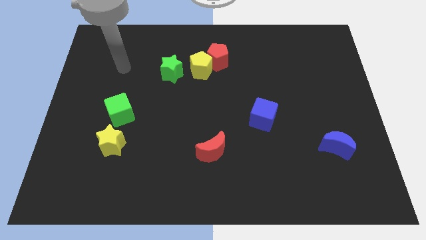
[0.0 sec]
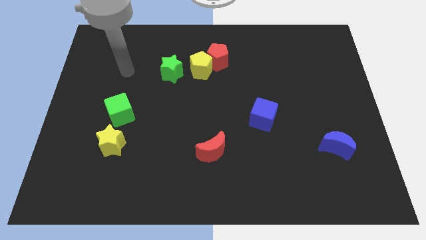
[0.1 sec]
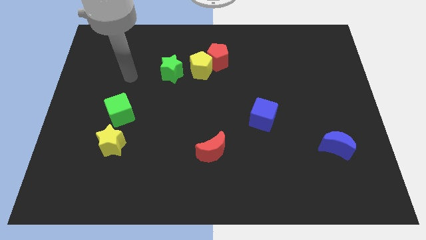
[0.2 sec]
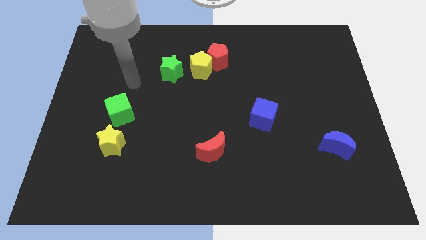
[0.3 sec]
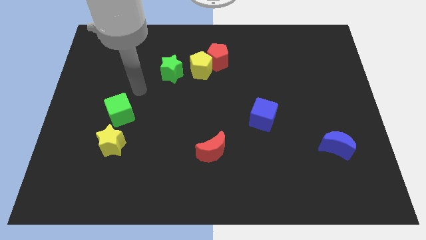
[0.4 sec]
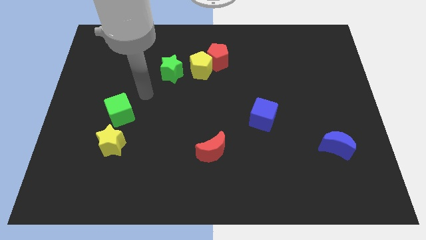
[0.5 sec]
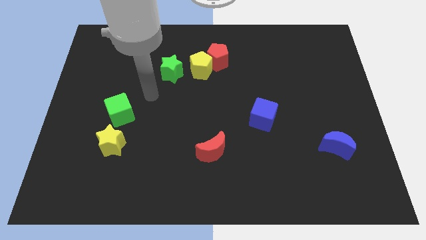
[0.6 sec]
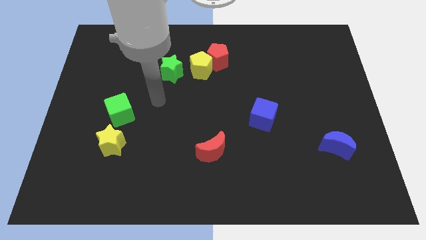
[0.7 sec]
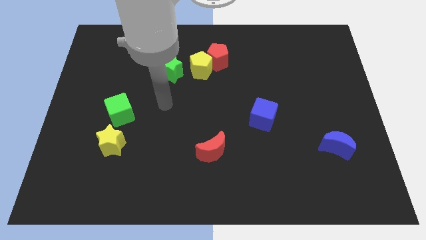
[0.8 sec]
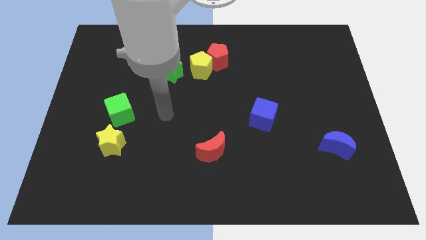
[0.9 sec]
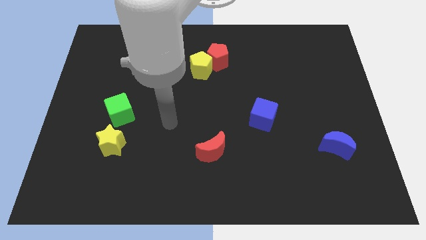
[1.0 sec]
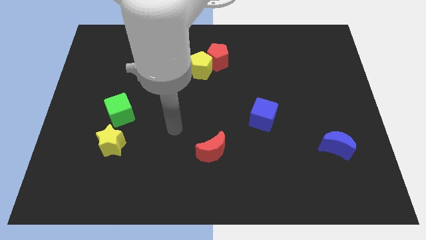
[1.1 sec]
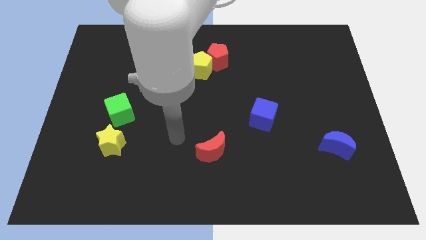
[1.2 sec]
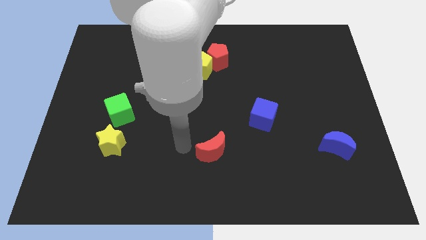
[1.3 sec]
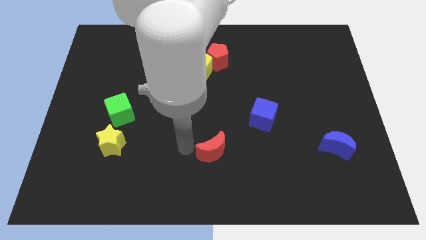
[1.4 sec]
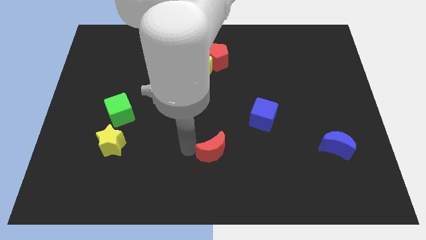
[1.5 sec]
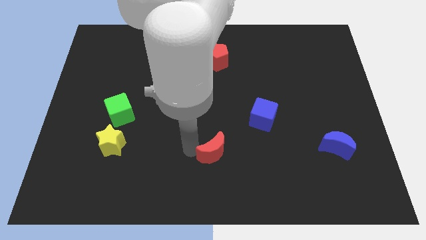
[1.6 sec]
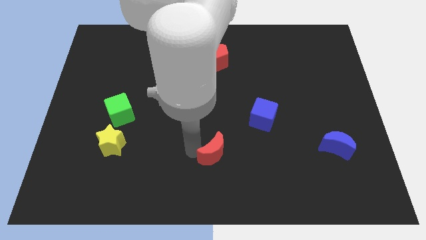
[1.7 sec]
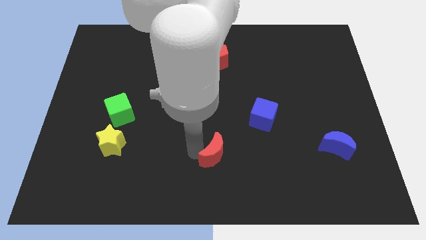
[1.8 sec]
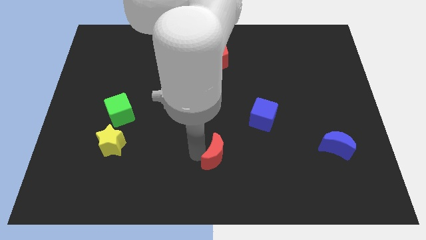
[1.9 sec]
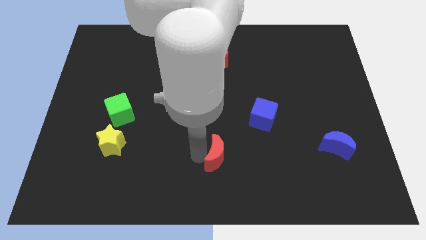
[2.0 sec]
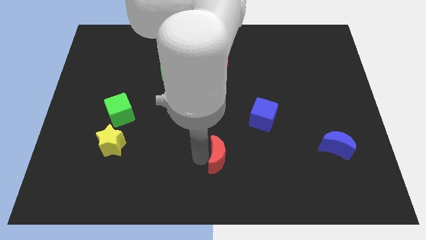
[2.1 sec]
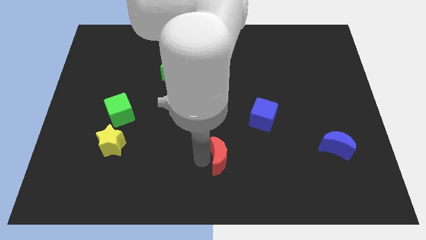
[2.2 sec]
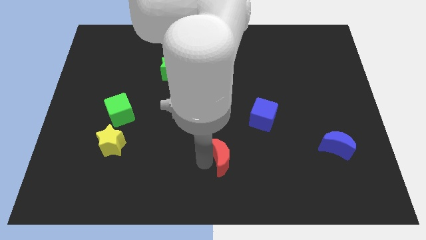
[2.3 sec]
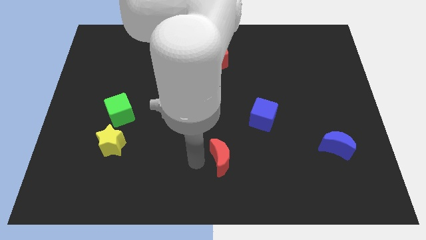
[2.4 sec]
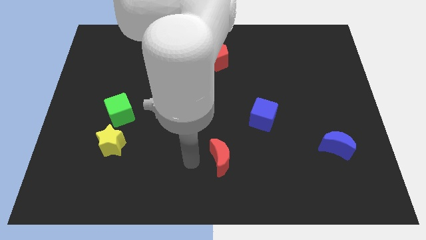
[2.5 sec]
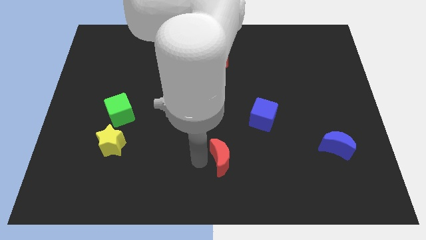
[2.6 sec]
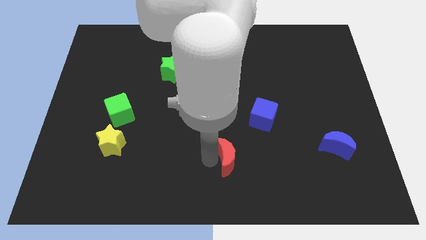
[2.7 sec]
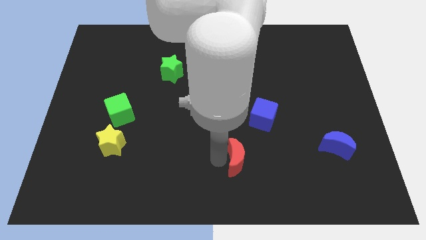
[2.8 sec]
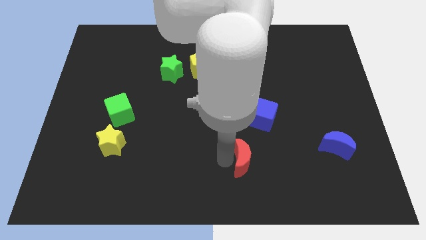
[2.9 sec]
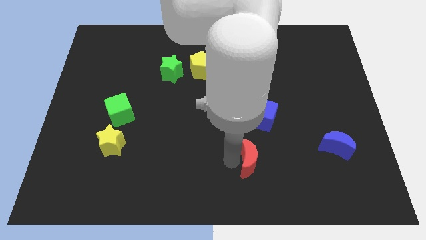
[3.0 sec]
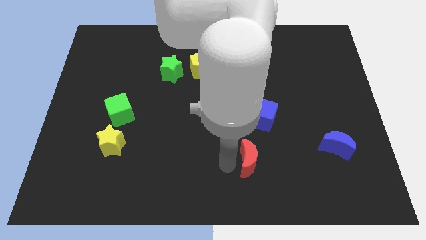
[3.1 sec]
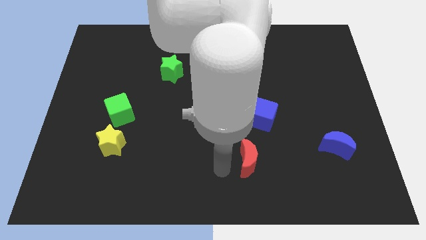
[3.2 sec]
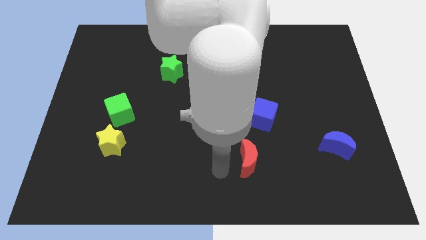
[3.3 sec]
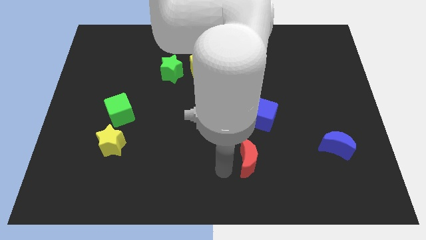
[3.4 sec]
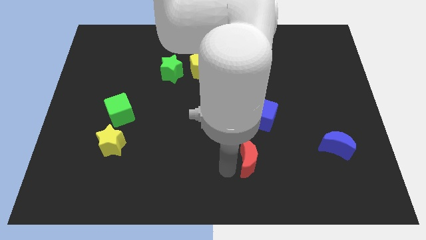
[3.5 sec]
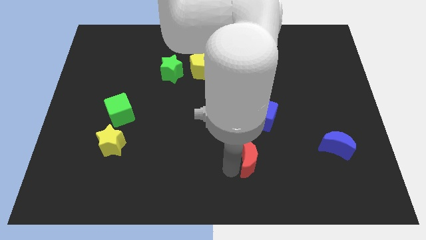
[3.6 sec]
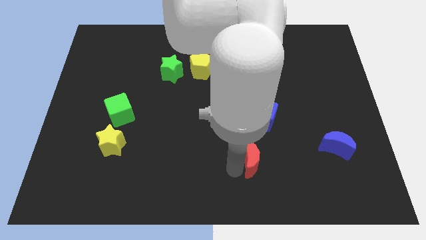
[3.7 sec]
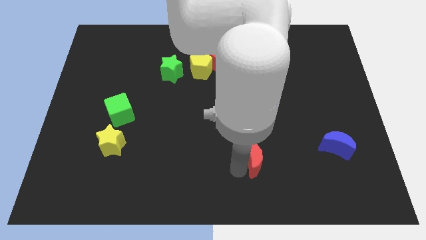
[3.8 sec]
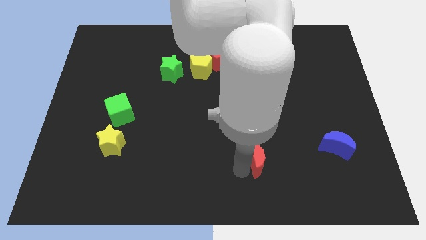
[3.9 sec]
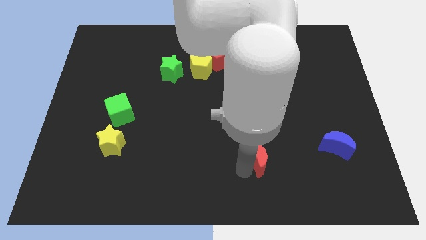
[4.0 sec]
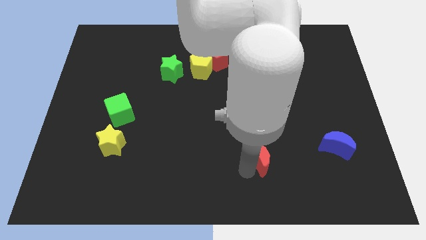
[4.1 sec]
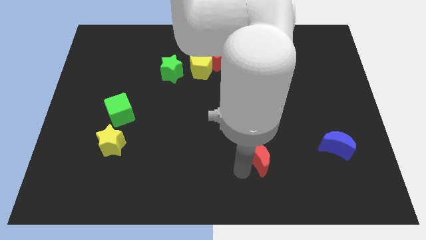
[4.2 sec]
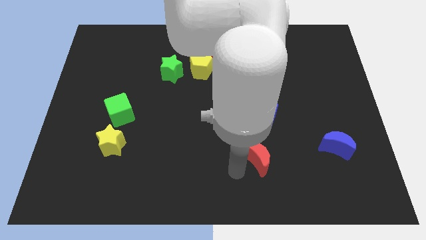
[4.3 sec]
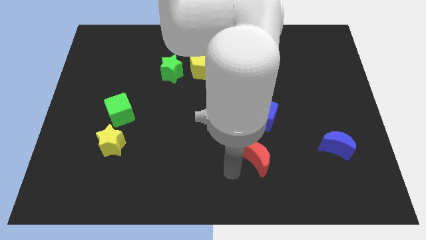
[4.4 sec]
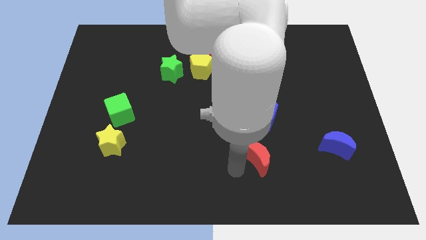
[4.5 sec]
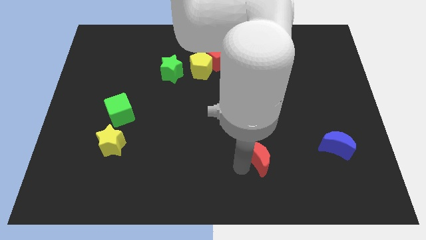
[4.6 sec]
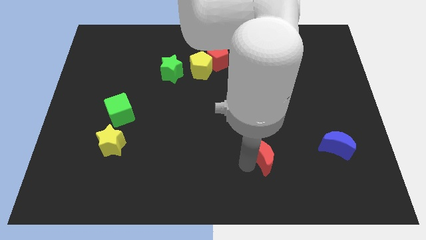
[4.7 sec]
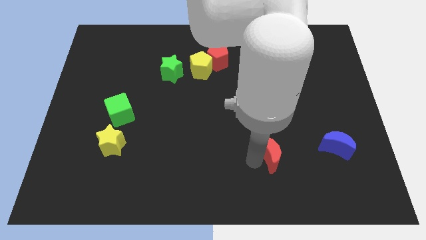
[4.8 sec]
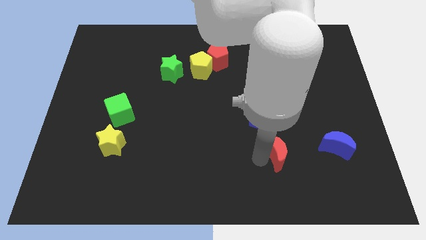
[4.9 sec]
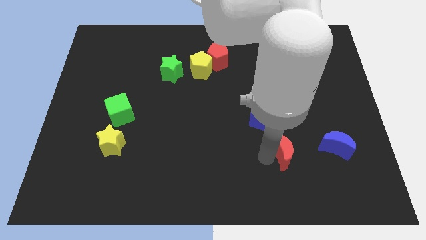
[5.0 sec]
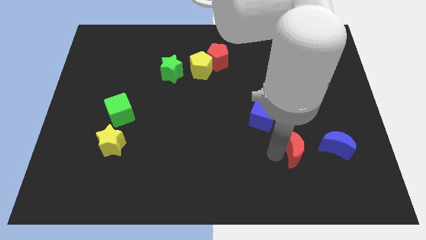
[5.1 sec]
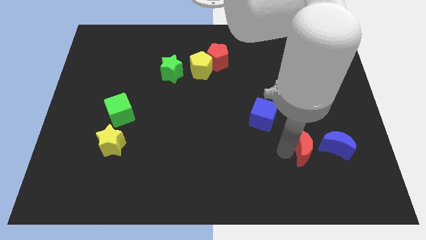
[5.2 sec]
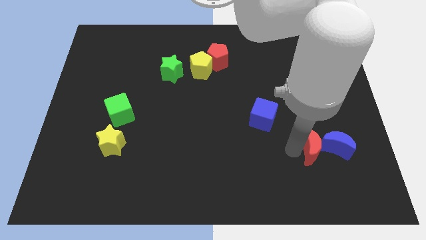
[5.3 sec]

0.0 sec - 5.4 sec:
put the red moon next to the blue moon

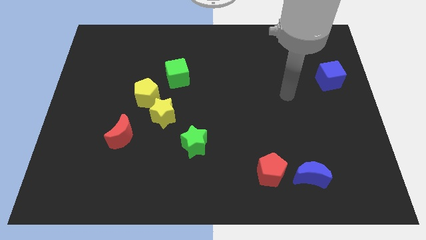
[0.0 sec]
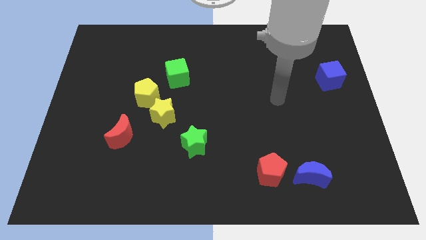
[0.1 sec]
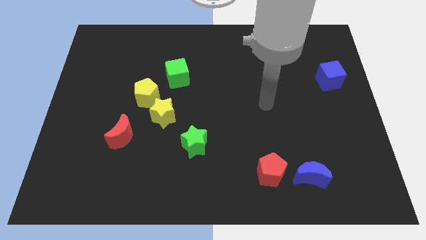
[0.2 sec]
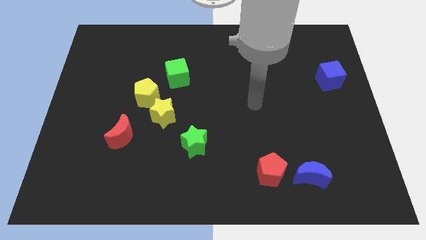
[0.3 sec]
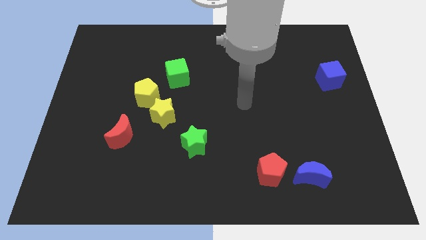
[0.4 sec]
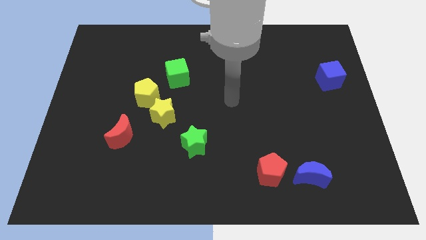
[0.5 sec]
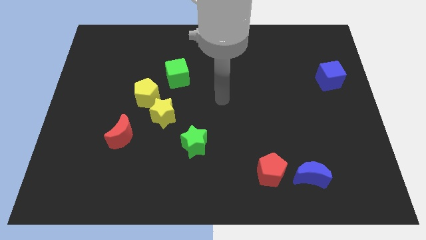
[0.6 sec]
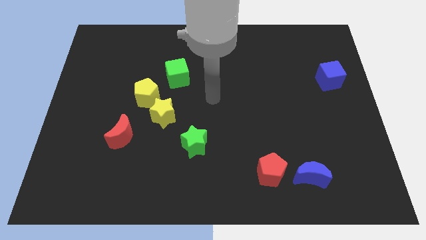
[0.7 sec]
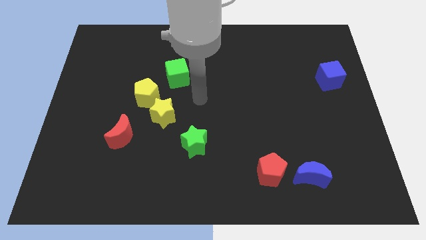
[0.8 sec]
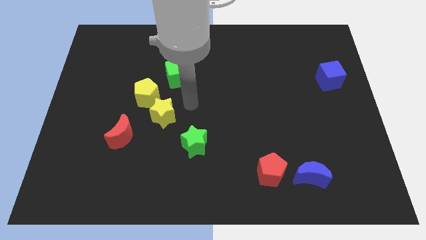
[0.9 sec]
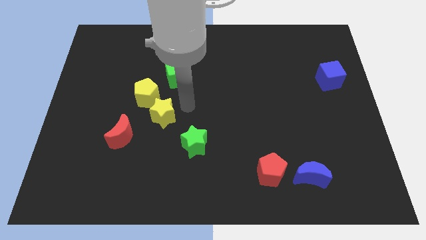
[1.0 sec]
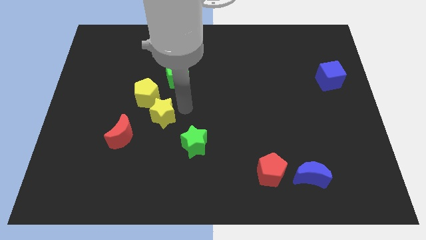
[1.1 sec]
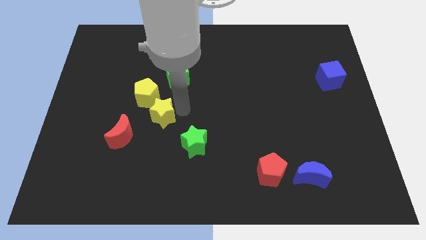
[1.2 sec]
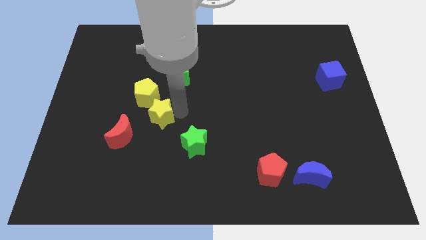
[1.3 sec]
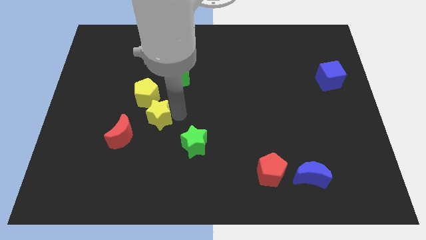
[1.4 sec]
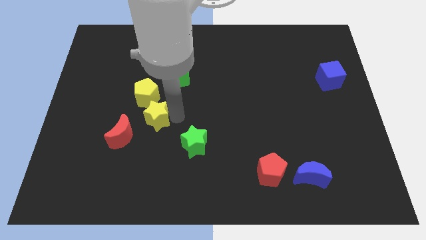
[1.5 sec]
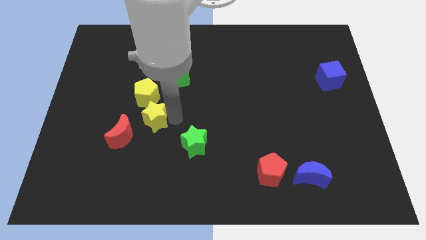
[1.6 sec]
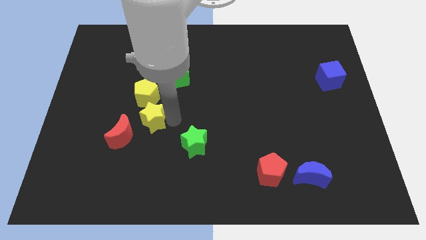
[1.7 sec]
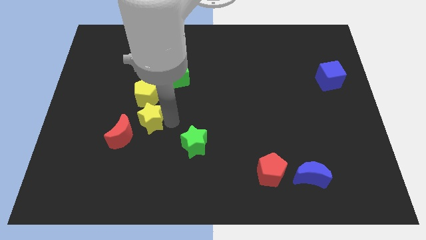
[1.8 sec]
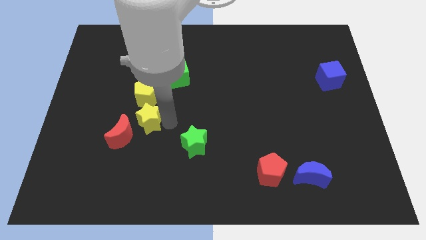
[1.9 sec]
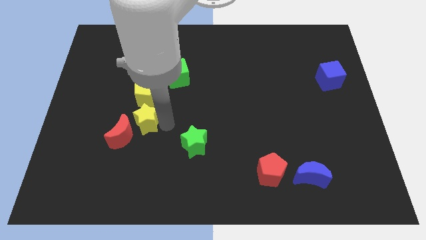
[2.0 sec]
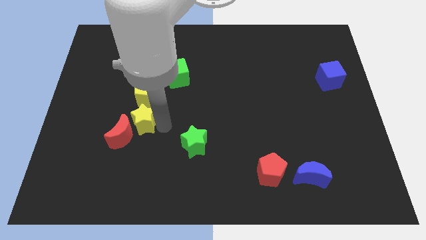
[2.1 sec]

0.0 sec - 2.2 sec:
put the yellow star close to the red moon

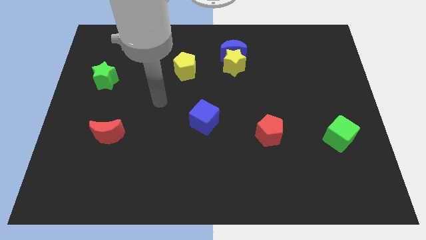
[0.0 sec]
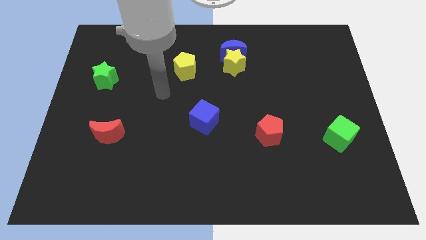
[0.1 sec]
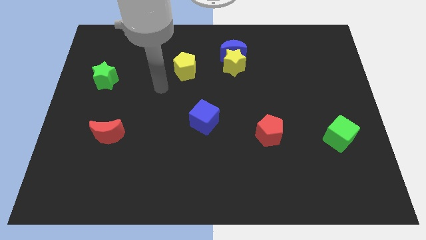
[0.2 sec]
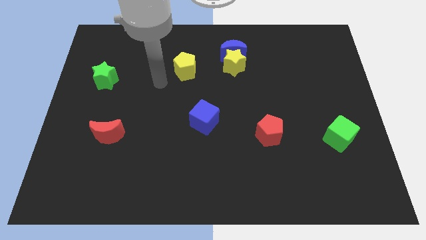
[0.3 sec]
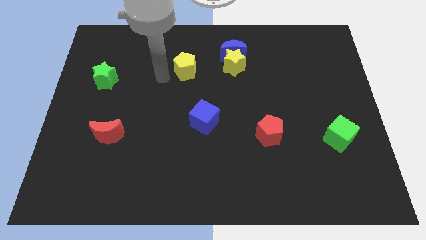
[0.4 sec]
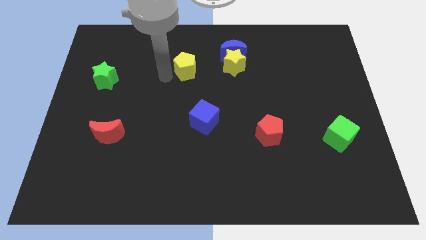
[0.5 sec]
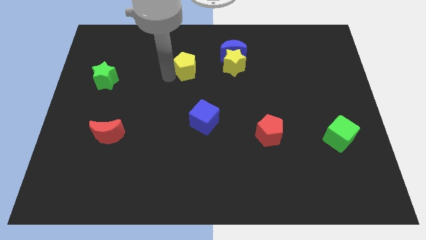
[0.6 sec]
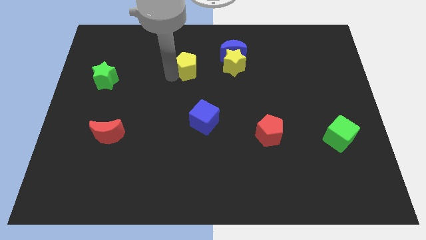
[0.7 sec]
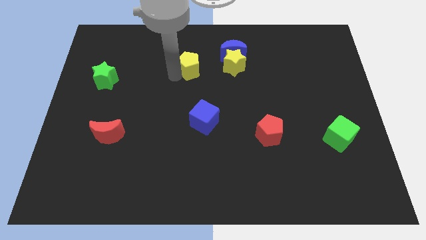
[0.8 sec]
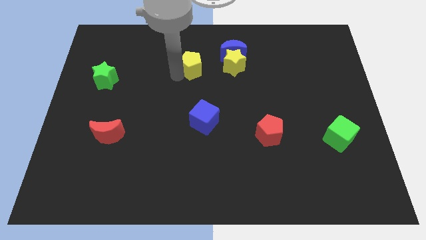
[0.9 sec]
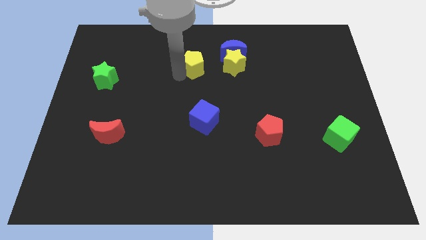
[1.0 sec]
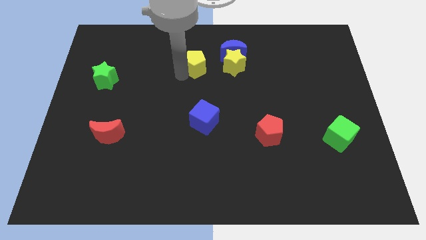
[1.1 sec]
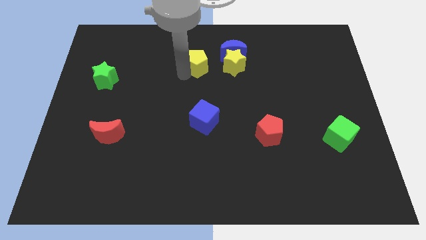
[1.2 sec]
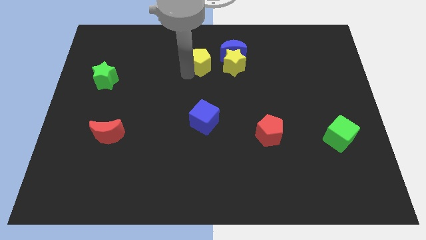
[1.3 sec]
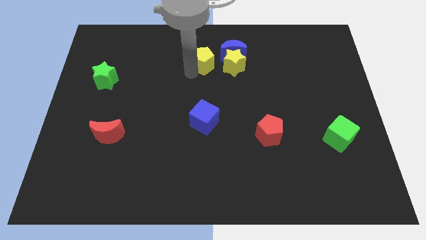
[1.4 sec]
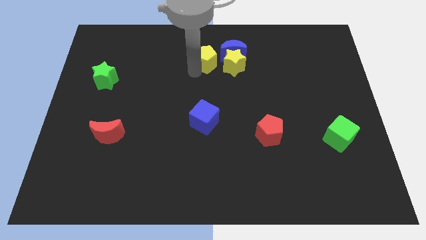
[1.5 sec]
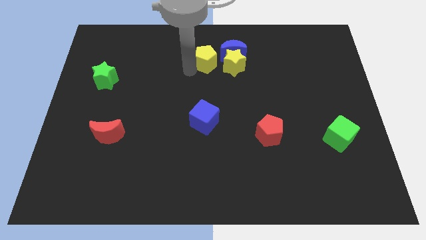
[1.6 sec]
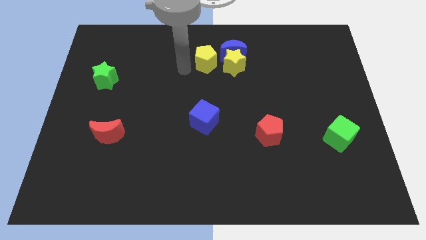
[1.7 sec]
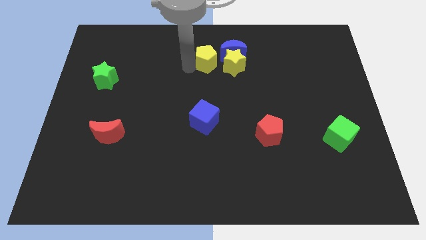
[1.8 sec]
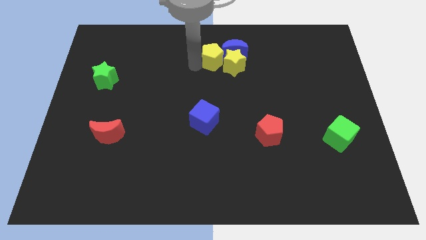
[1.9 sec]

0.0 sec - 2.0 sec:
push the yellow pentagon close to the blue moon
